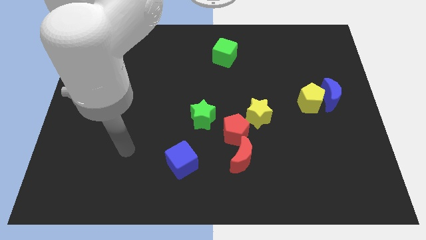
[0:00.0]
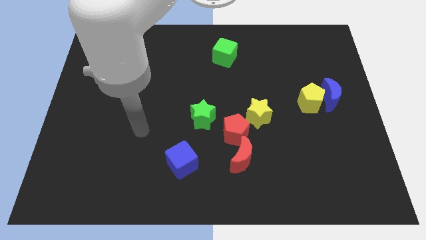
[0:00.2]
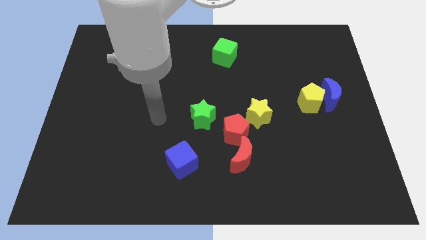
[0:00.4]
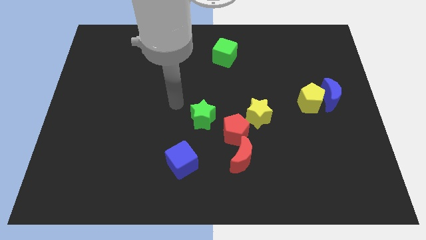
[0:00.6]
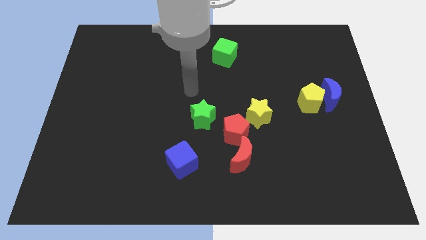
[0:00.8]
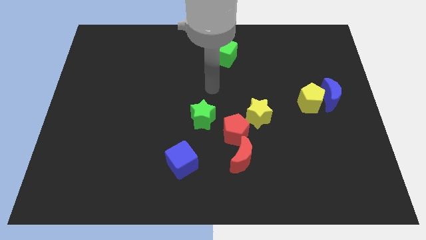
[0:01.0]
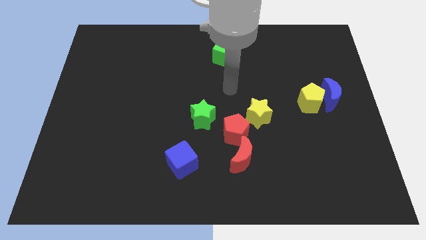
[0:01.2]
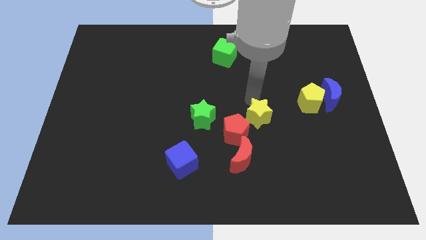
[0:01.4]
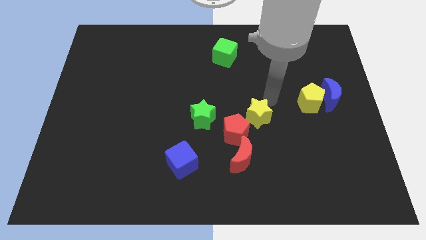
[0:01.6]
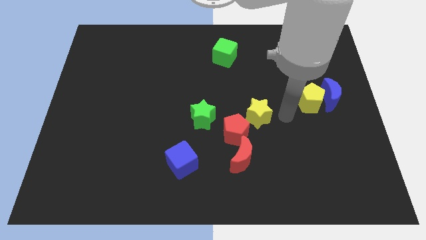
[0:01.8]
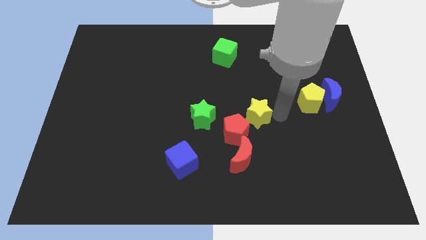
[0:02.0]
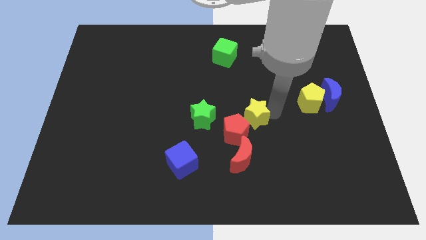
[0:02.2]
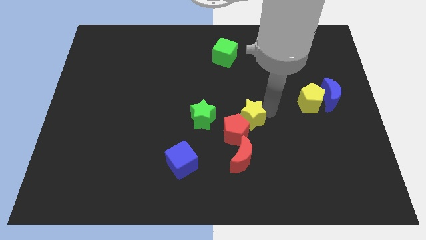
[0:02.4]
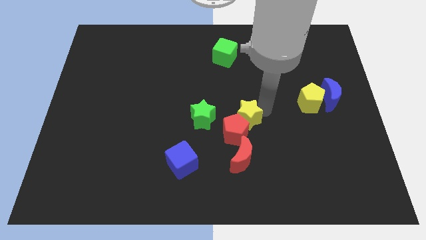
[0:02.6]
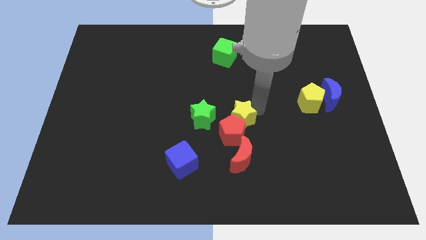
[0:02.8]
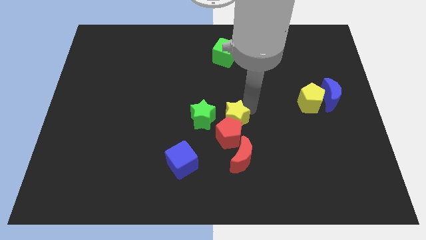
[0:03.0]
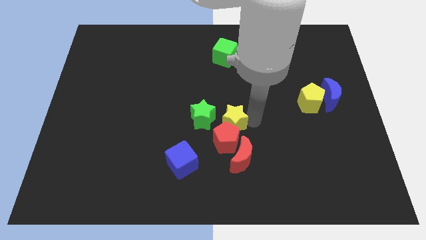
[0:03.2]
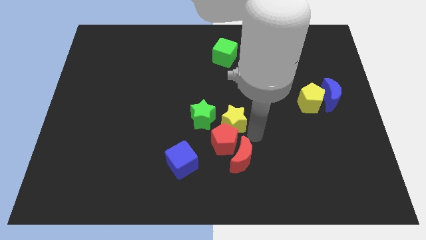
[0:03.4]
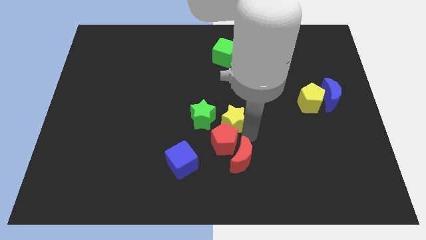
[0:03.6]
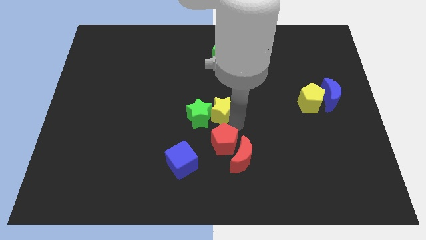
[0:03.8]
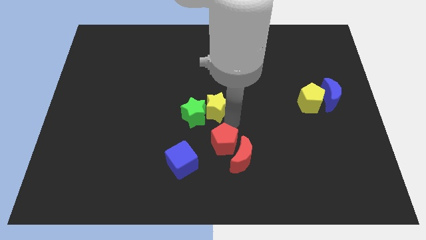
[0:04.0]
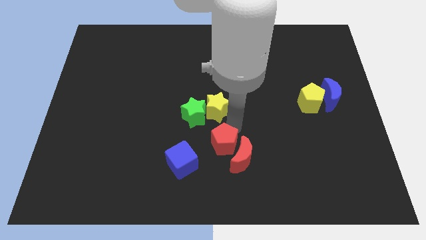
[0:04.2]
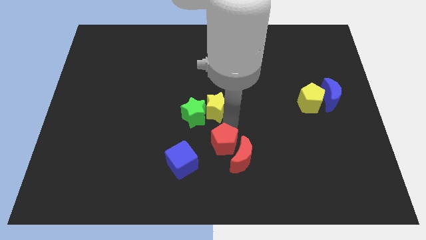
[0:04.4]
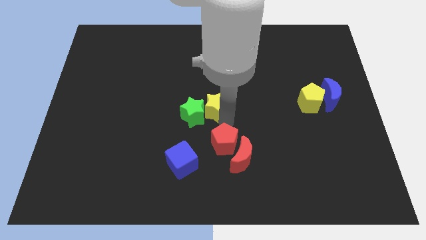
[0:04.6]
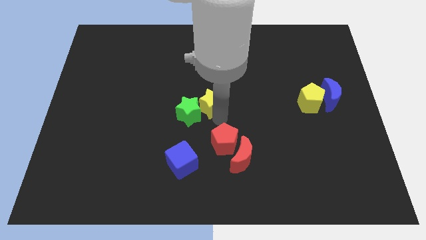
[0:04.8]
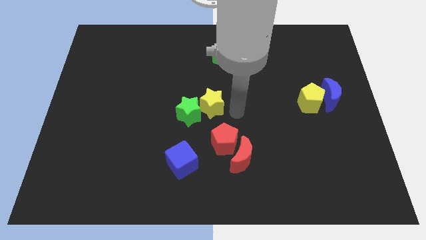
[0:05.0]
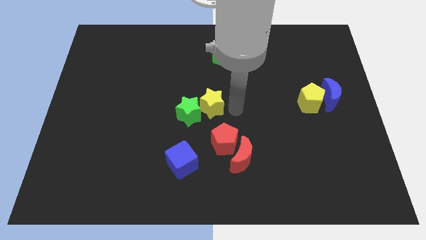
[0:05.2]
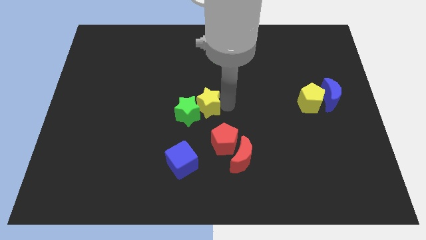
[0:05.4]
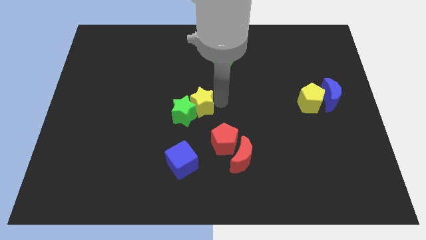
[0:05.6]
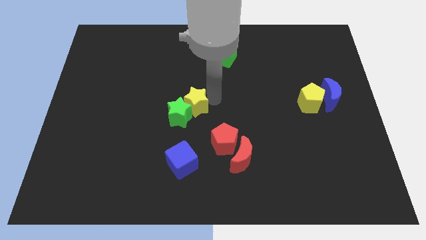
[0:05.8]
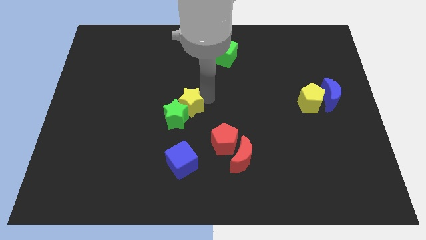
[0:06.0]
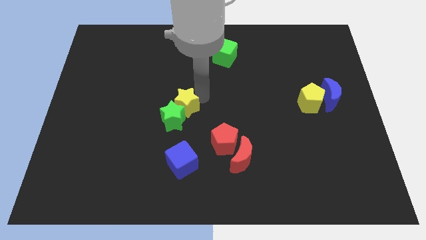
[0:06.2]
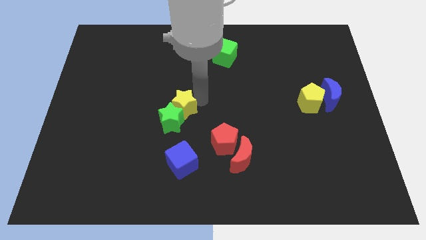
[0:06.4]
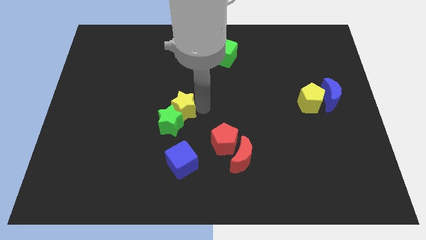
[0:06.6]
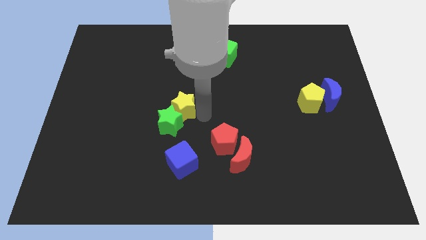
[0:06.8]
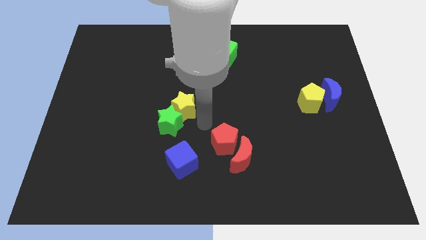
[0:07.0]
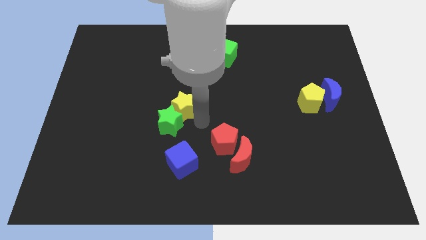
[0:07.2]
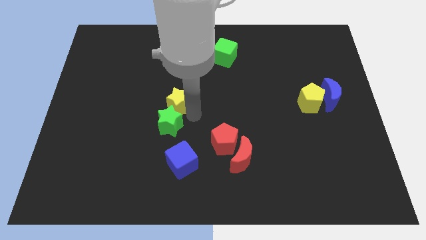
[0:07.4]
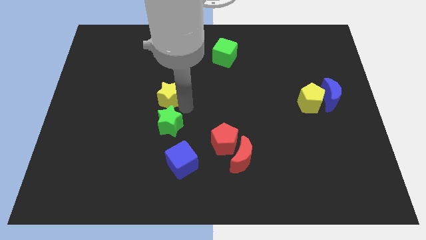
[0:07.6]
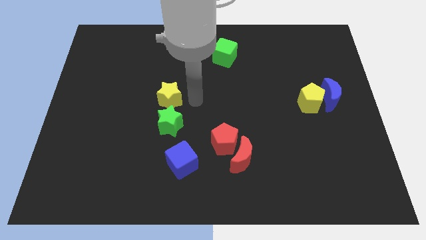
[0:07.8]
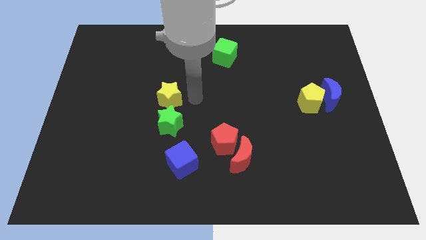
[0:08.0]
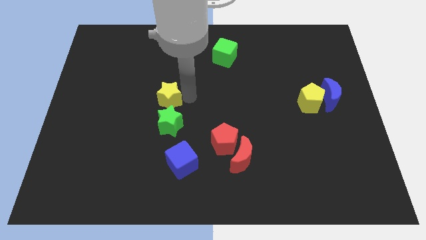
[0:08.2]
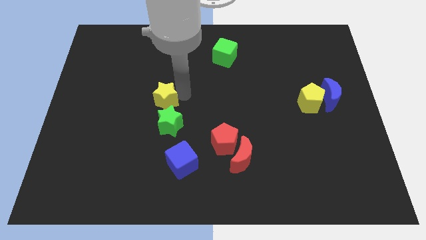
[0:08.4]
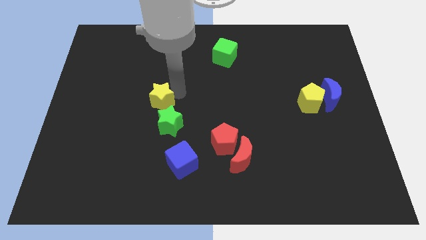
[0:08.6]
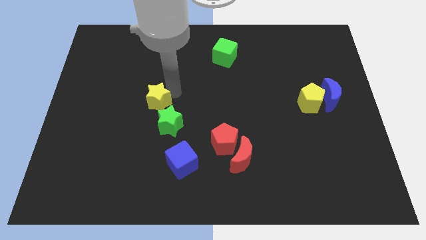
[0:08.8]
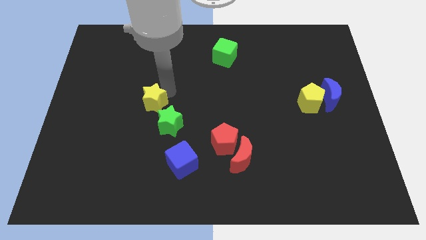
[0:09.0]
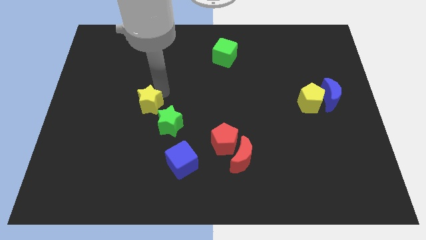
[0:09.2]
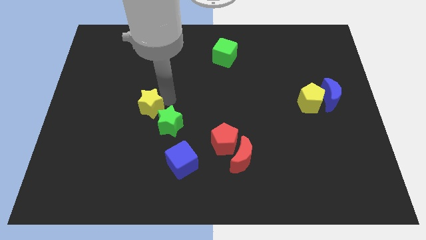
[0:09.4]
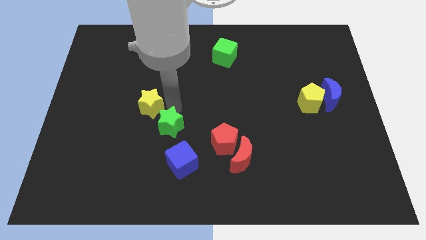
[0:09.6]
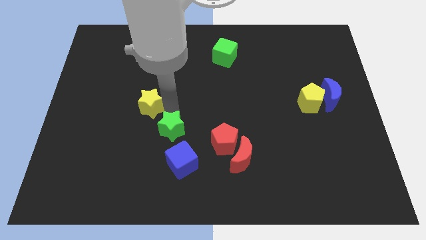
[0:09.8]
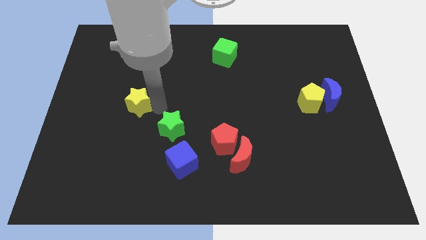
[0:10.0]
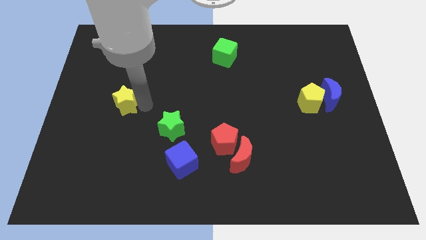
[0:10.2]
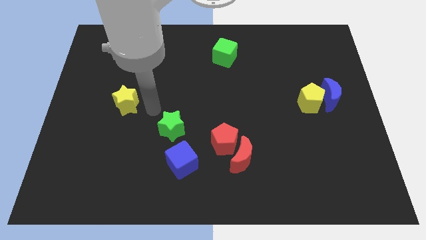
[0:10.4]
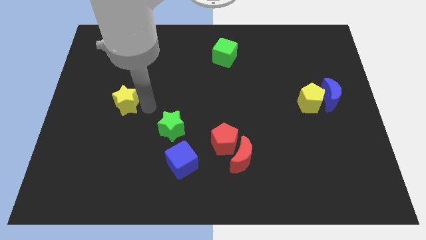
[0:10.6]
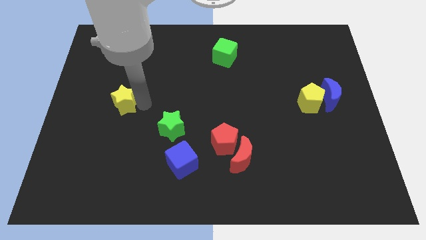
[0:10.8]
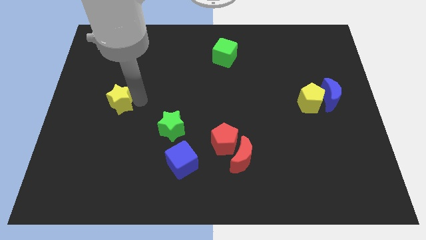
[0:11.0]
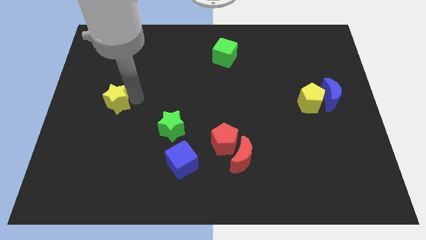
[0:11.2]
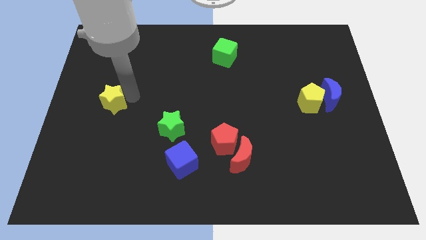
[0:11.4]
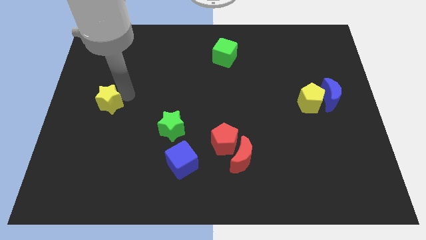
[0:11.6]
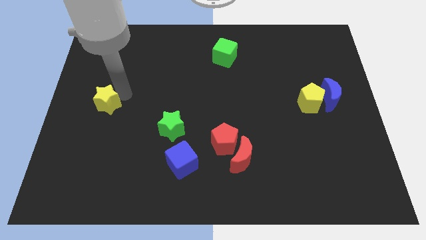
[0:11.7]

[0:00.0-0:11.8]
move the yellow star to the center left

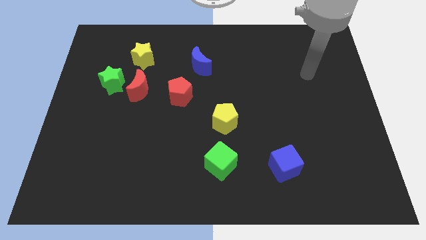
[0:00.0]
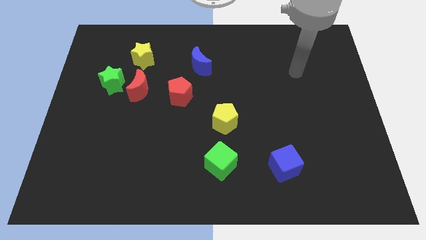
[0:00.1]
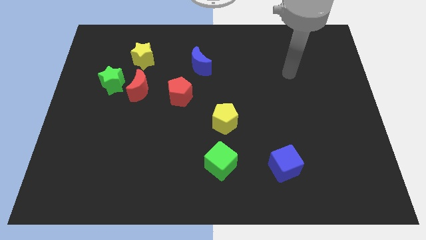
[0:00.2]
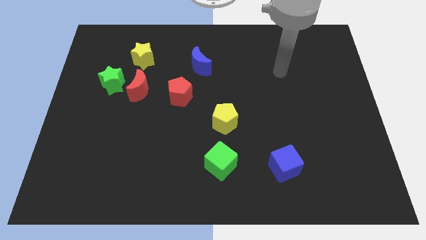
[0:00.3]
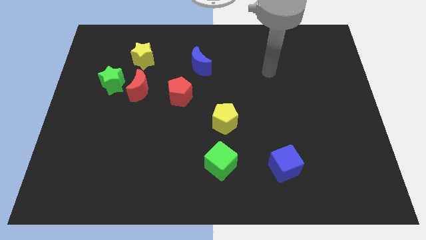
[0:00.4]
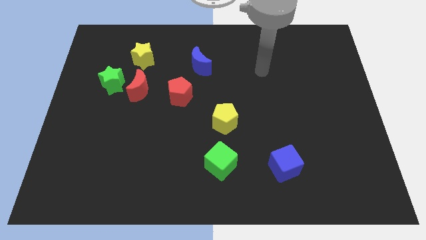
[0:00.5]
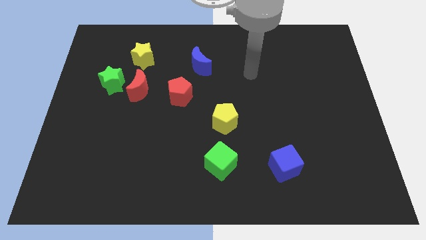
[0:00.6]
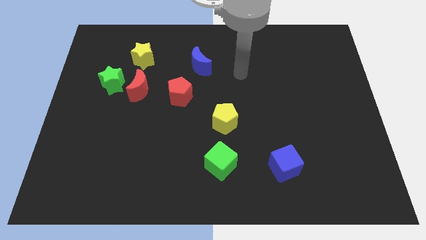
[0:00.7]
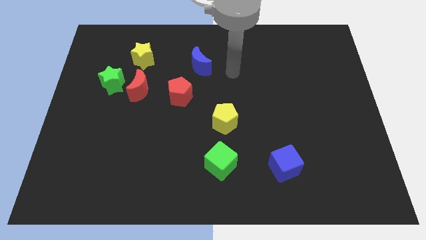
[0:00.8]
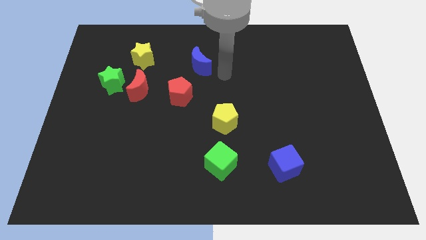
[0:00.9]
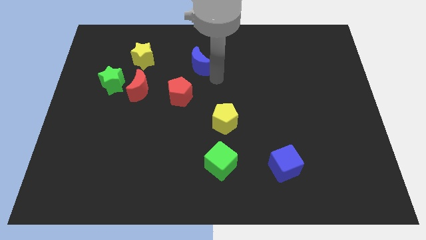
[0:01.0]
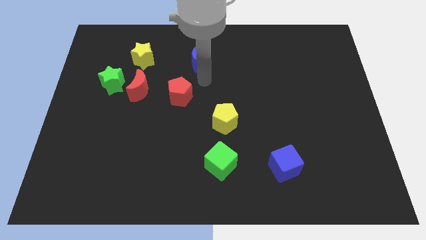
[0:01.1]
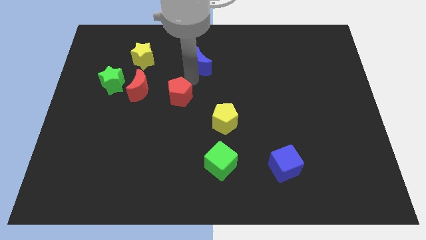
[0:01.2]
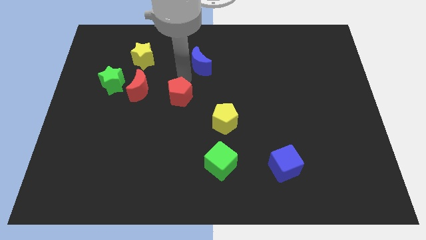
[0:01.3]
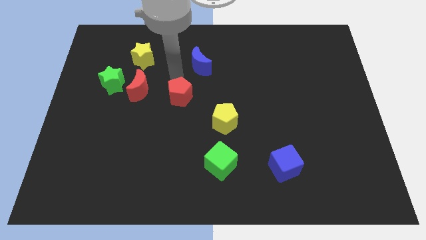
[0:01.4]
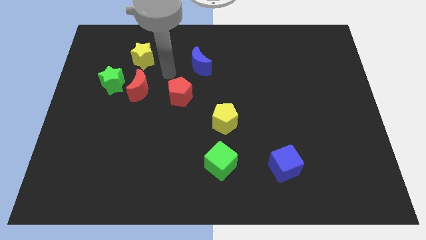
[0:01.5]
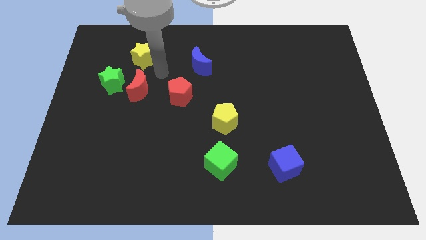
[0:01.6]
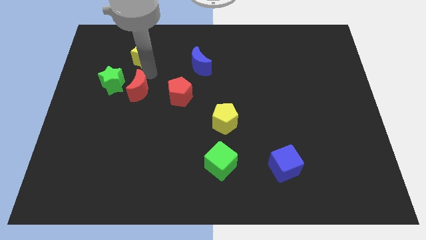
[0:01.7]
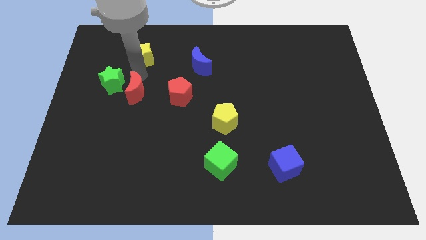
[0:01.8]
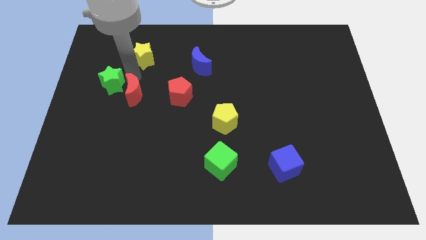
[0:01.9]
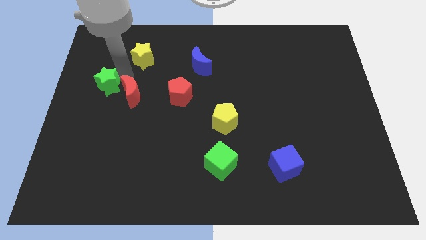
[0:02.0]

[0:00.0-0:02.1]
slide the green star to the left side of the board
